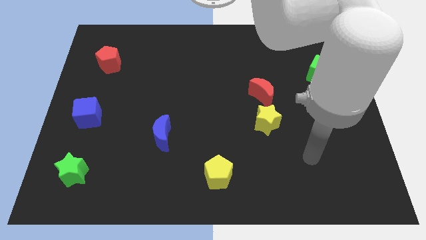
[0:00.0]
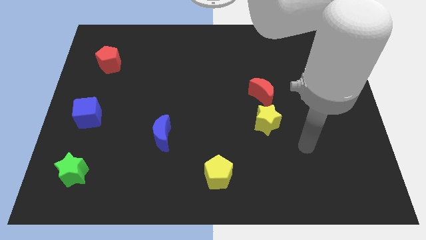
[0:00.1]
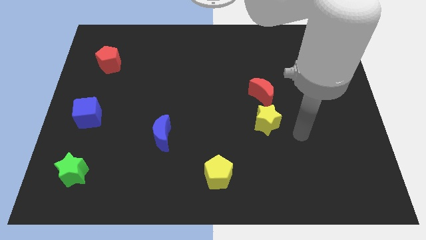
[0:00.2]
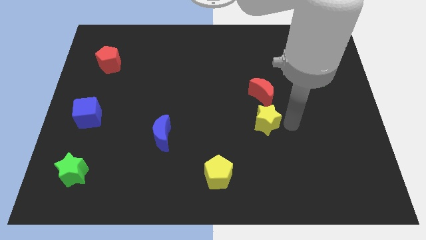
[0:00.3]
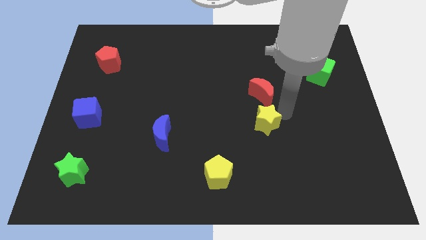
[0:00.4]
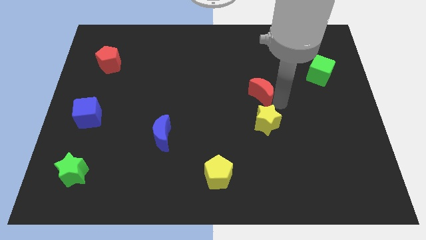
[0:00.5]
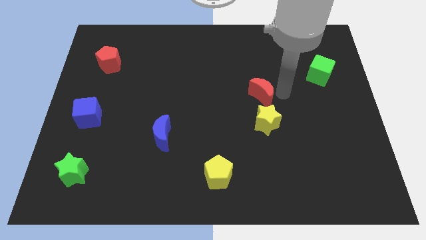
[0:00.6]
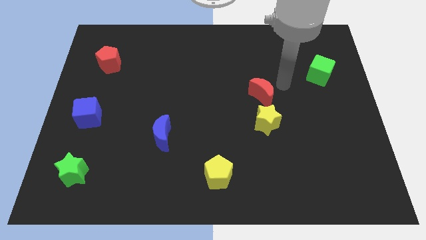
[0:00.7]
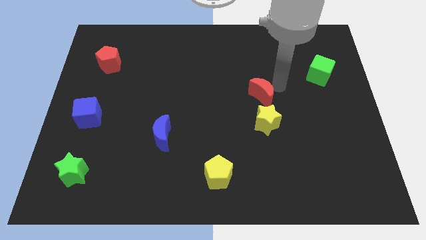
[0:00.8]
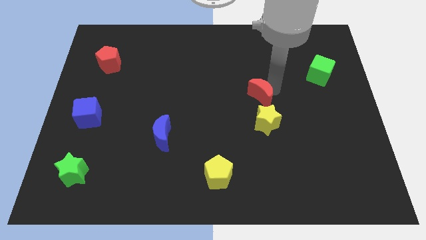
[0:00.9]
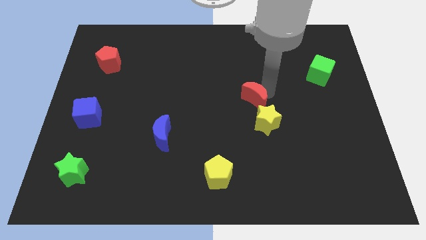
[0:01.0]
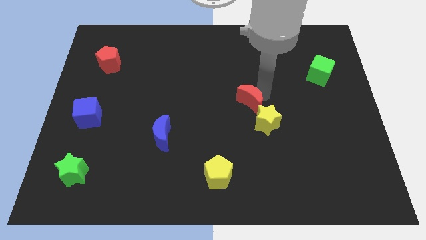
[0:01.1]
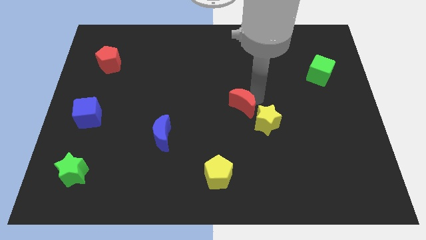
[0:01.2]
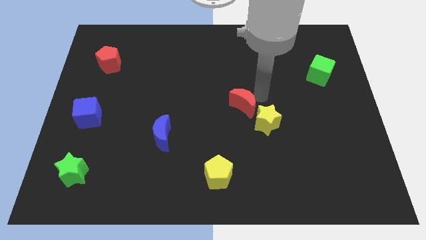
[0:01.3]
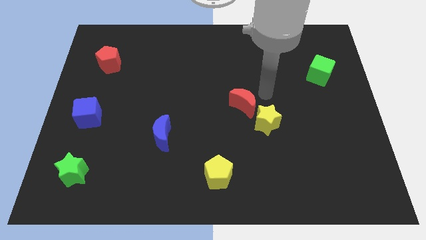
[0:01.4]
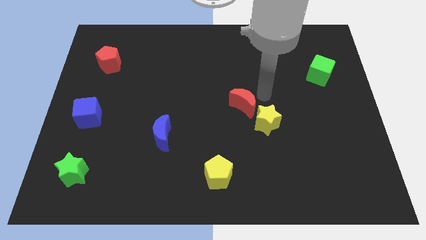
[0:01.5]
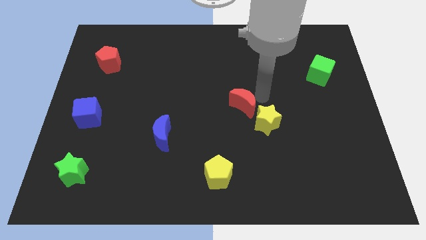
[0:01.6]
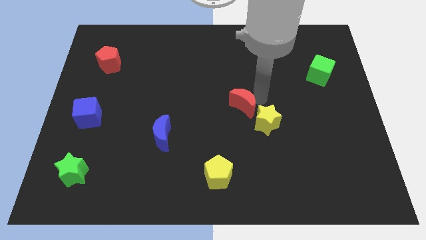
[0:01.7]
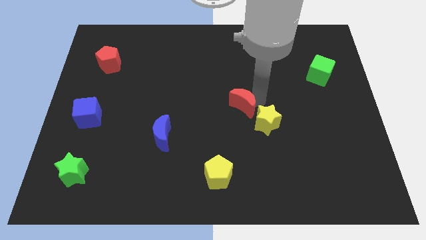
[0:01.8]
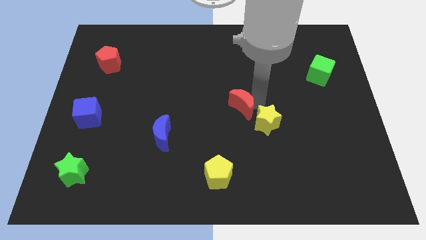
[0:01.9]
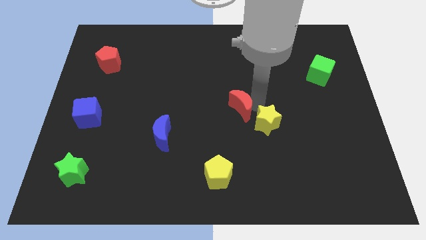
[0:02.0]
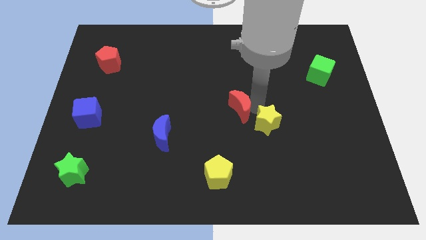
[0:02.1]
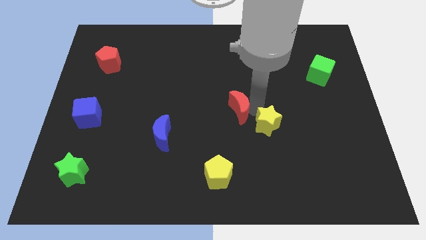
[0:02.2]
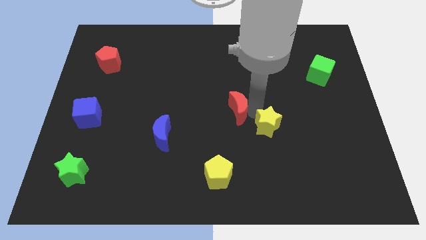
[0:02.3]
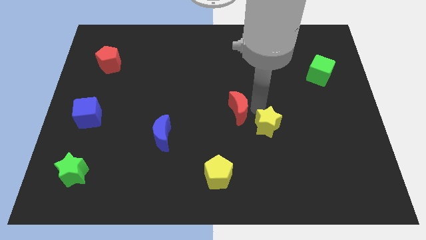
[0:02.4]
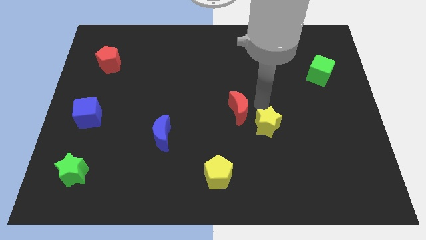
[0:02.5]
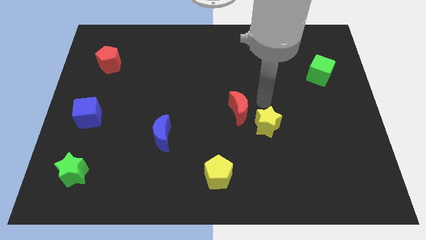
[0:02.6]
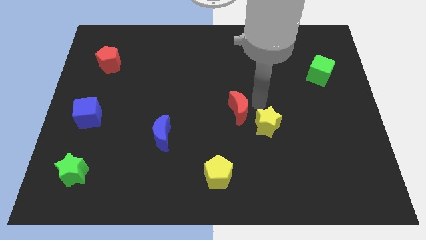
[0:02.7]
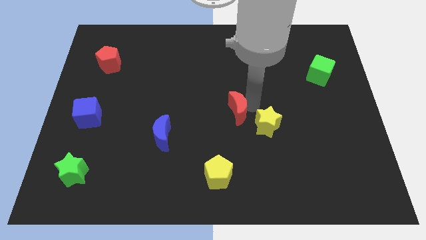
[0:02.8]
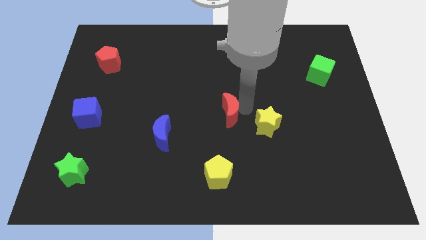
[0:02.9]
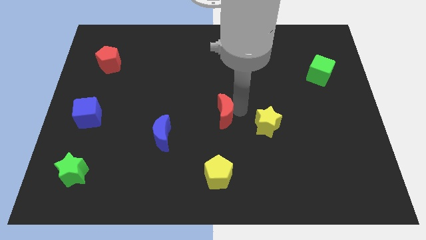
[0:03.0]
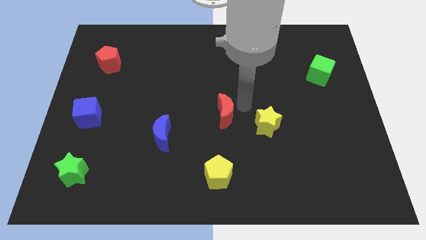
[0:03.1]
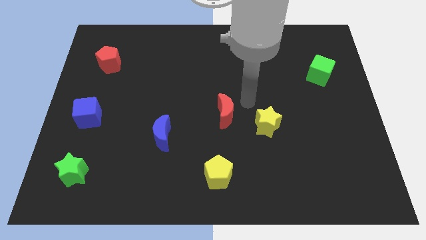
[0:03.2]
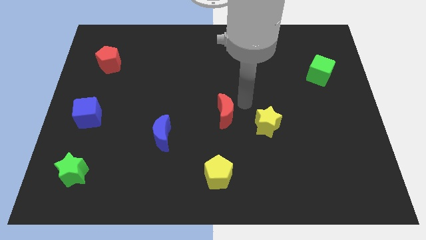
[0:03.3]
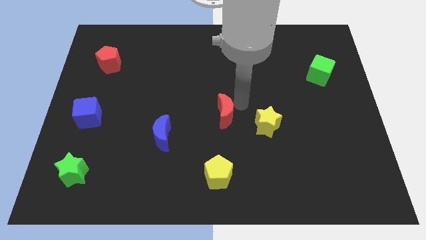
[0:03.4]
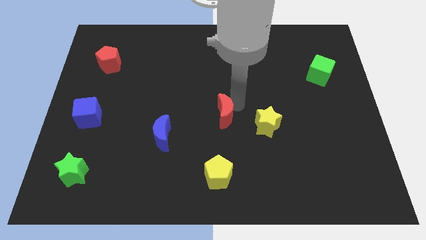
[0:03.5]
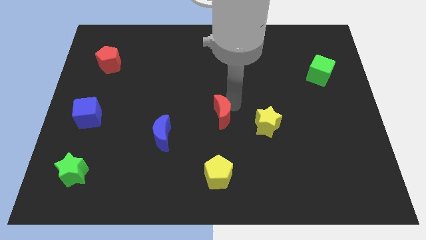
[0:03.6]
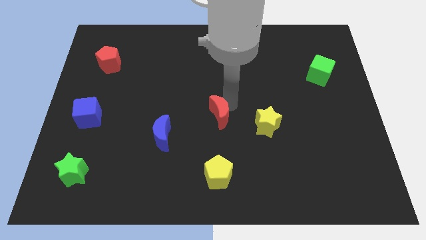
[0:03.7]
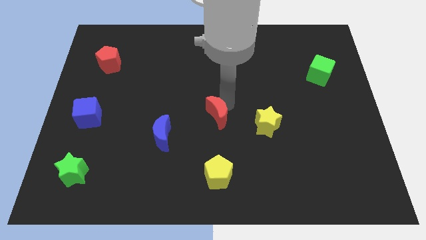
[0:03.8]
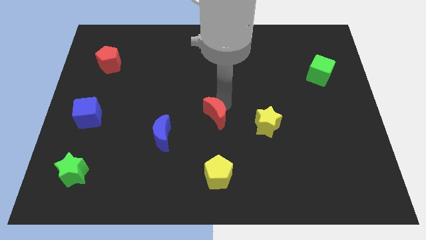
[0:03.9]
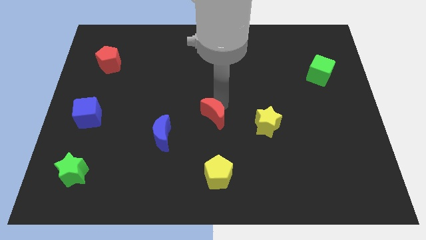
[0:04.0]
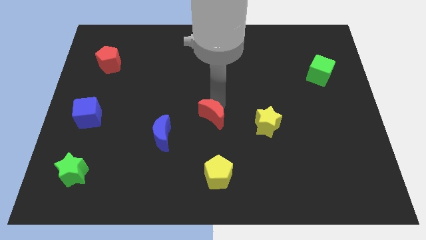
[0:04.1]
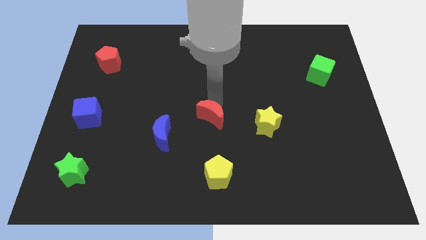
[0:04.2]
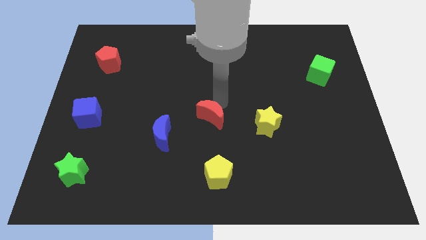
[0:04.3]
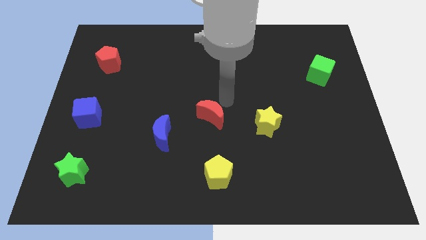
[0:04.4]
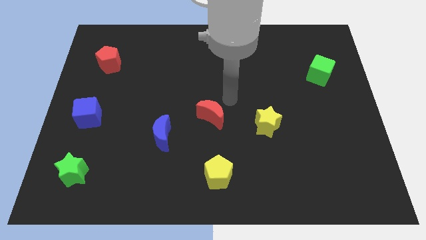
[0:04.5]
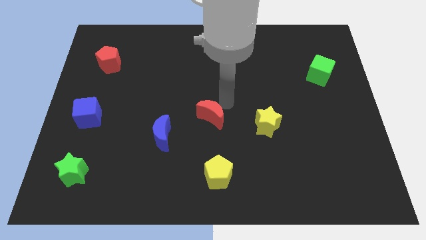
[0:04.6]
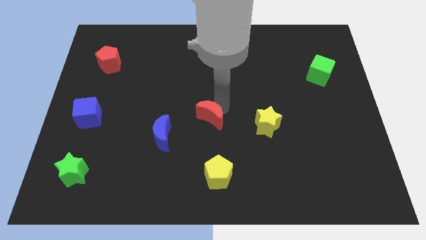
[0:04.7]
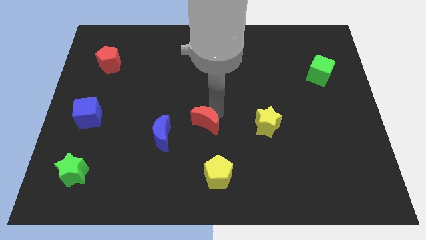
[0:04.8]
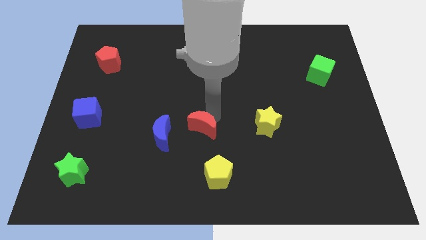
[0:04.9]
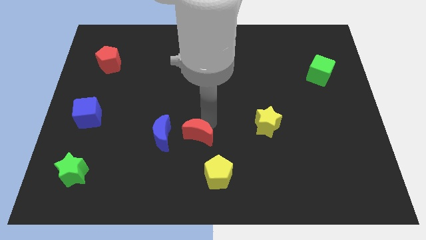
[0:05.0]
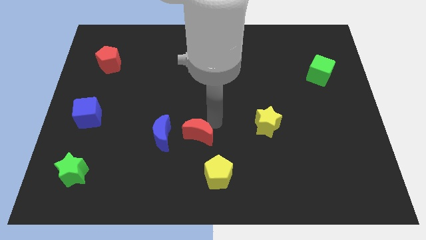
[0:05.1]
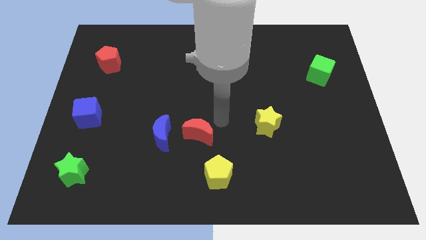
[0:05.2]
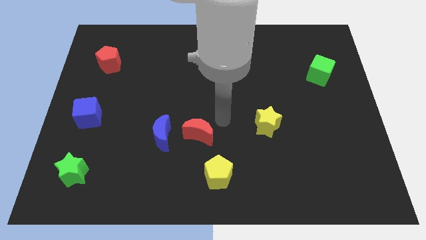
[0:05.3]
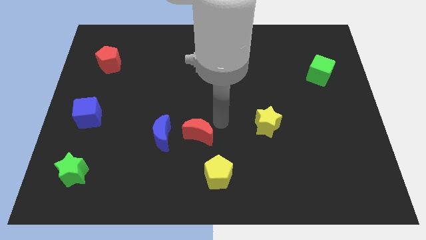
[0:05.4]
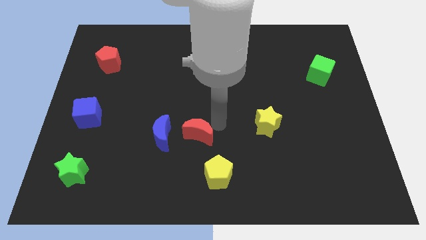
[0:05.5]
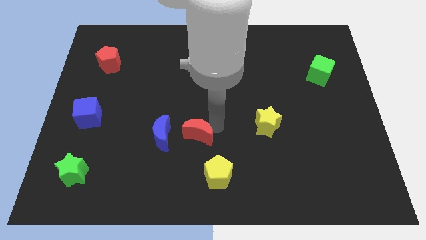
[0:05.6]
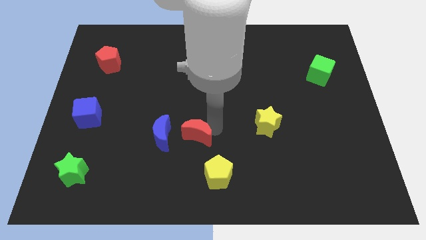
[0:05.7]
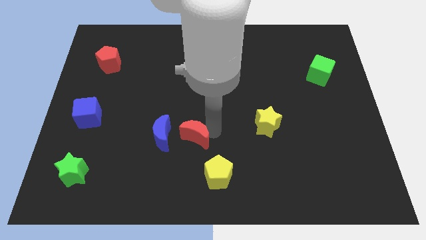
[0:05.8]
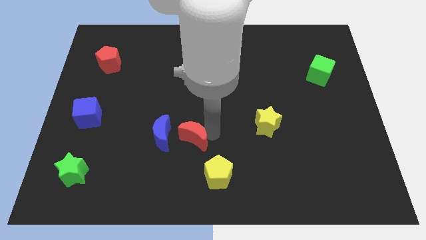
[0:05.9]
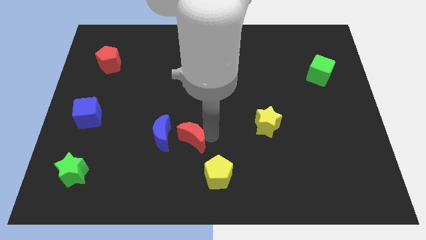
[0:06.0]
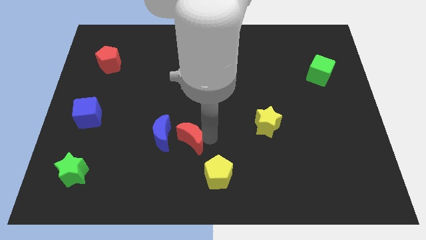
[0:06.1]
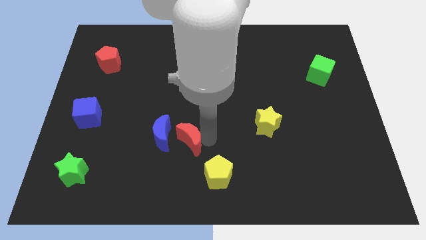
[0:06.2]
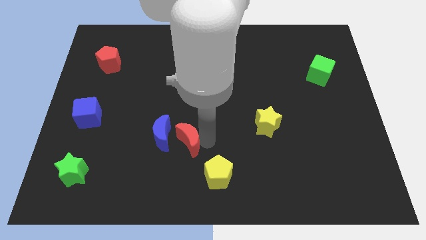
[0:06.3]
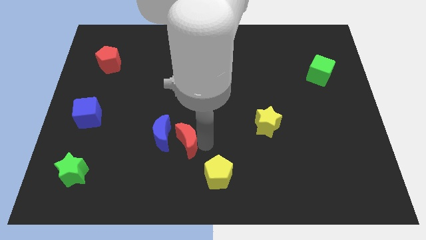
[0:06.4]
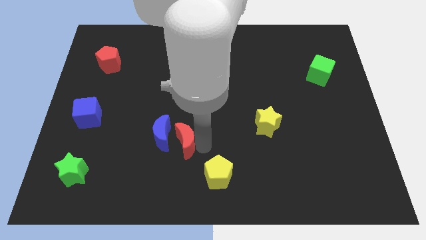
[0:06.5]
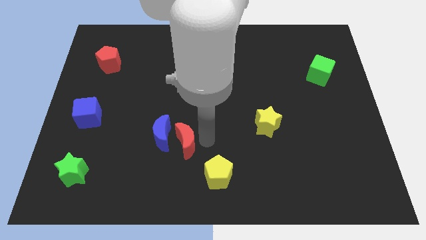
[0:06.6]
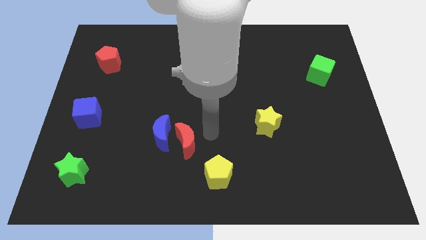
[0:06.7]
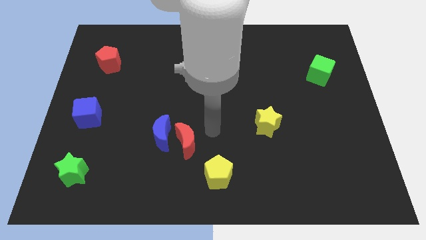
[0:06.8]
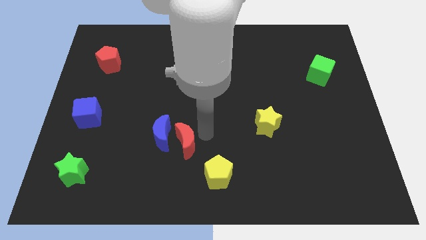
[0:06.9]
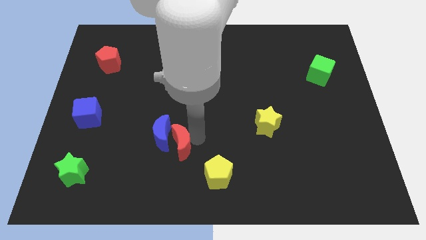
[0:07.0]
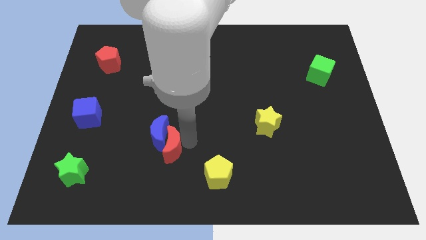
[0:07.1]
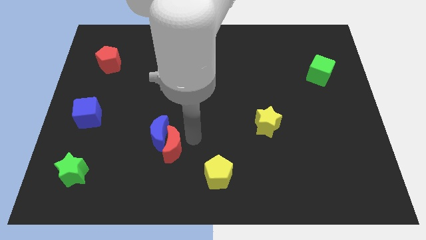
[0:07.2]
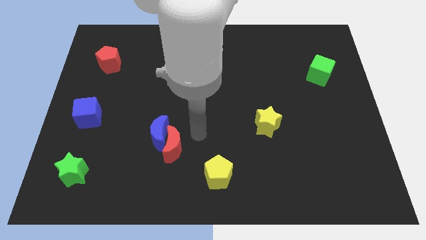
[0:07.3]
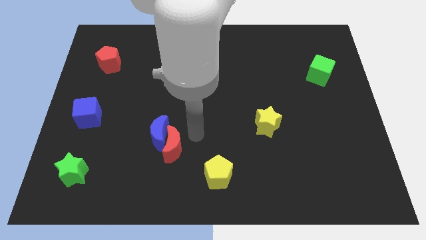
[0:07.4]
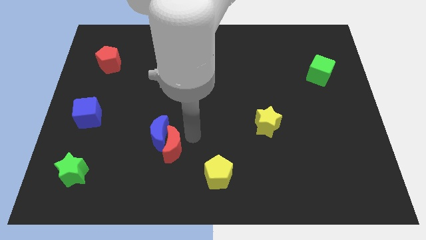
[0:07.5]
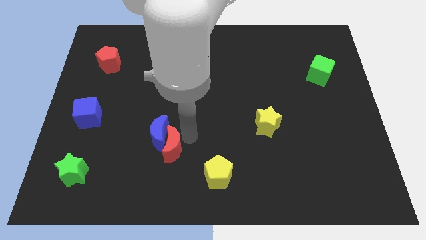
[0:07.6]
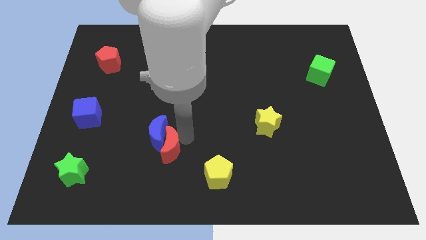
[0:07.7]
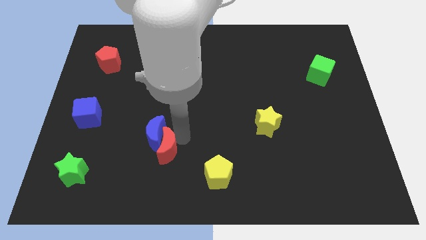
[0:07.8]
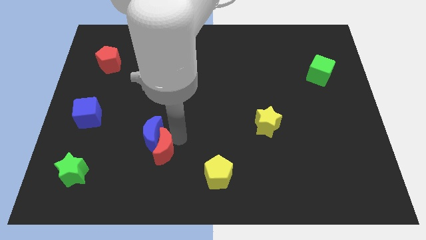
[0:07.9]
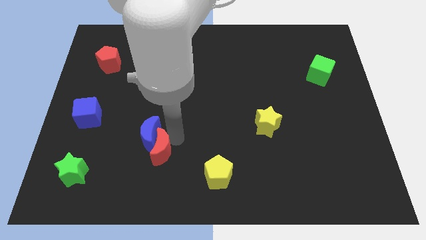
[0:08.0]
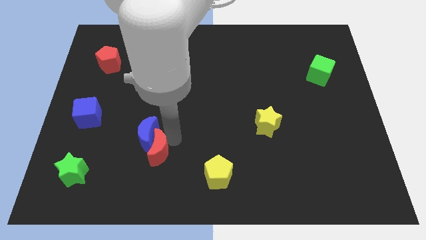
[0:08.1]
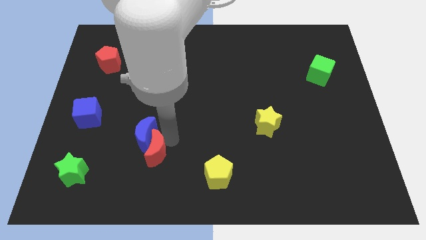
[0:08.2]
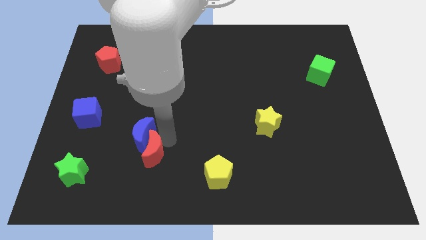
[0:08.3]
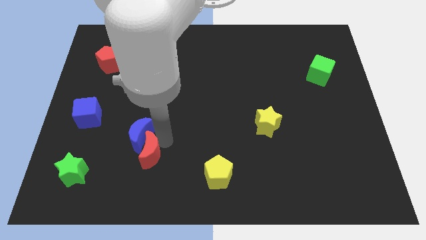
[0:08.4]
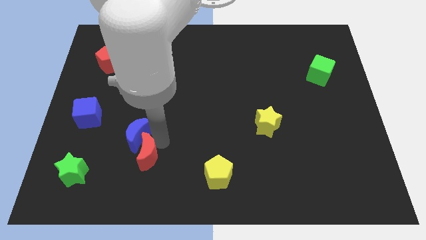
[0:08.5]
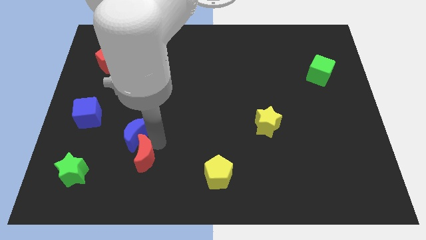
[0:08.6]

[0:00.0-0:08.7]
push the red moon right of the green star
